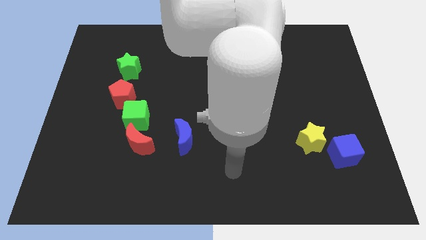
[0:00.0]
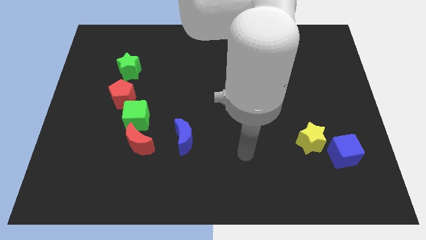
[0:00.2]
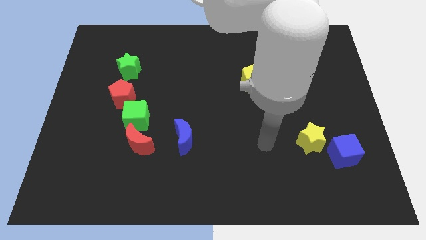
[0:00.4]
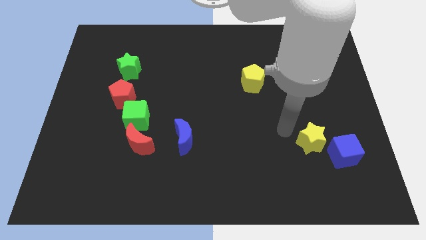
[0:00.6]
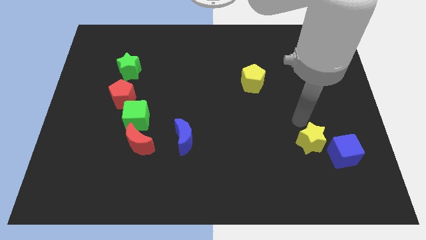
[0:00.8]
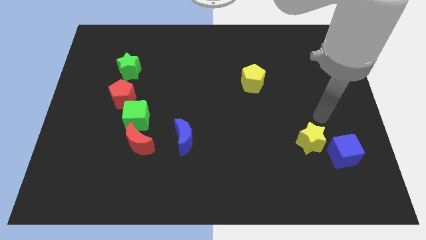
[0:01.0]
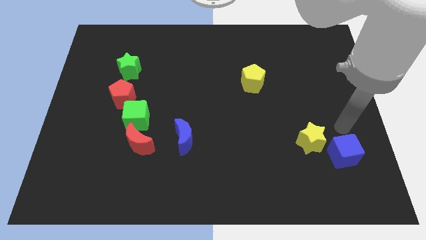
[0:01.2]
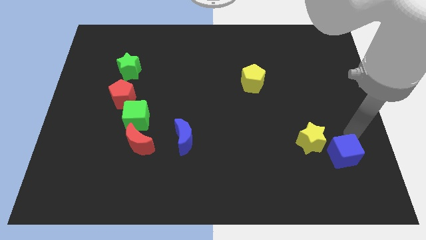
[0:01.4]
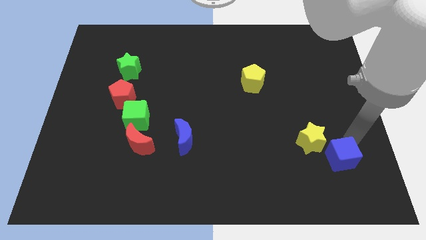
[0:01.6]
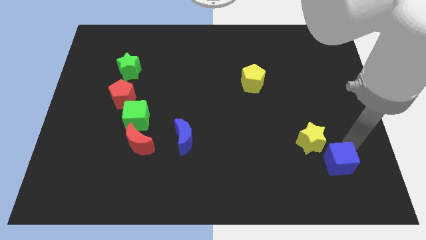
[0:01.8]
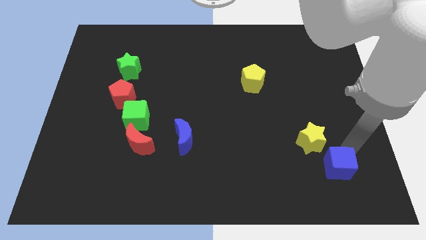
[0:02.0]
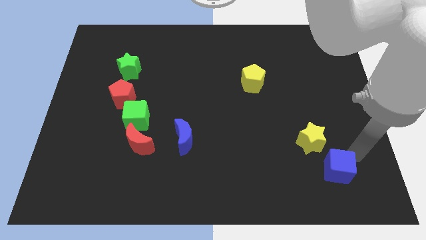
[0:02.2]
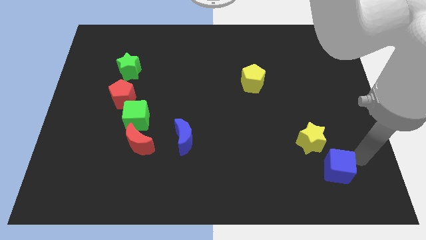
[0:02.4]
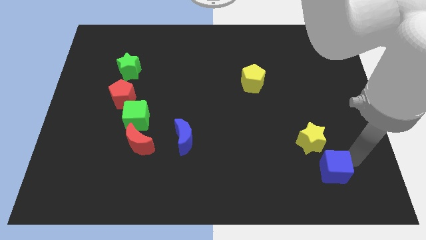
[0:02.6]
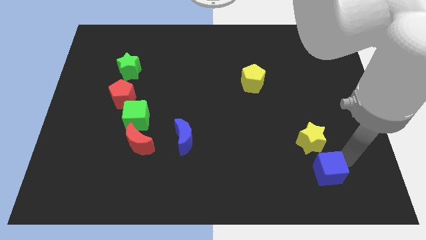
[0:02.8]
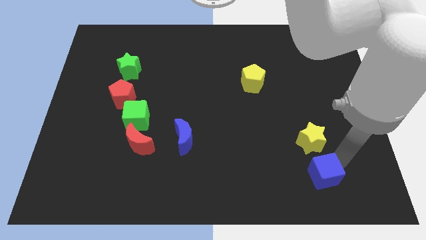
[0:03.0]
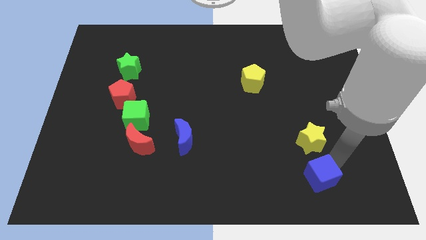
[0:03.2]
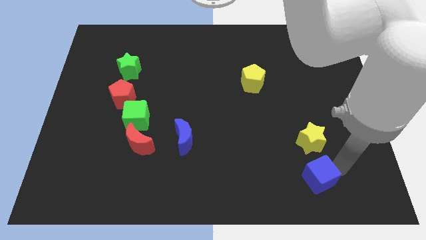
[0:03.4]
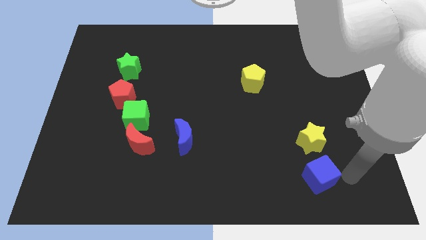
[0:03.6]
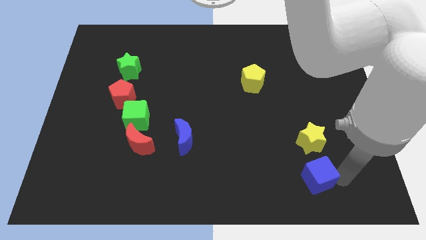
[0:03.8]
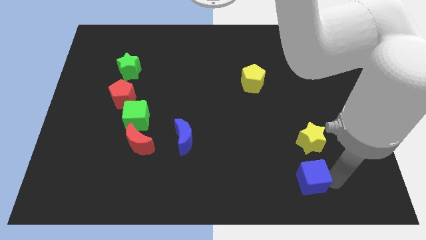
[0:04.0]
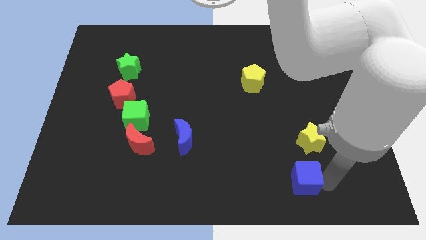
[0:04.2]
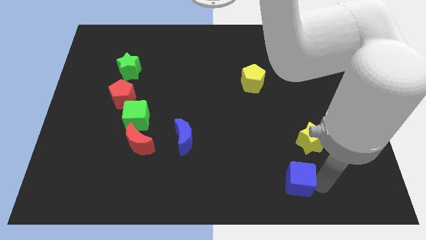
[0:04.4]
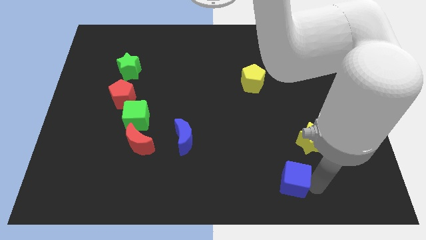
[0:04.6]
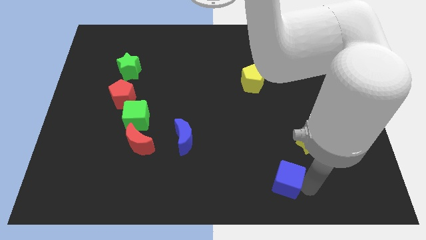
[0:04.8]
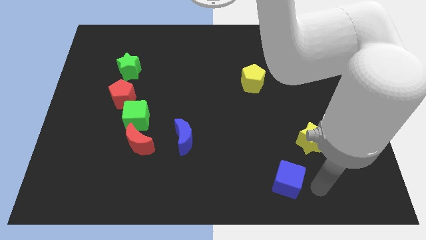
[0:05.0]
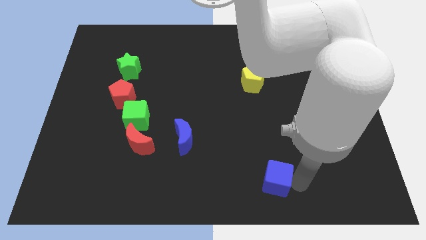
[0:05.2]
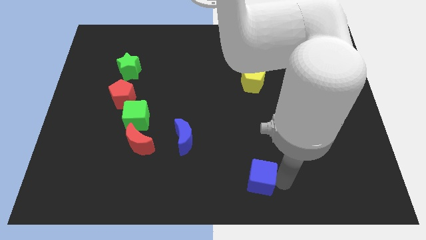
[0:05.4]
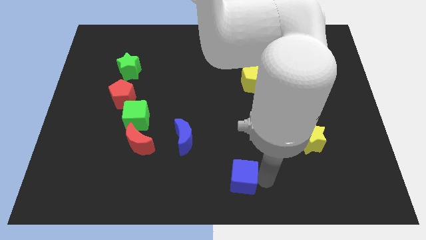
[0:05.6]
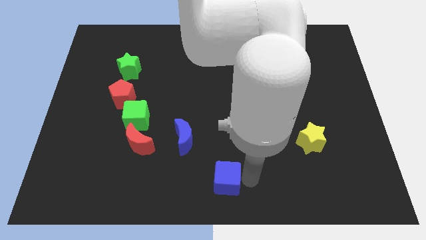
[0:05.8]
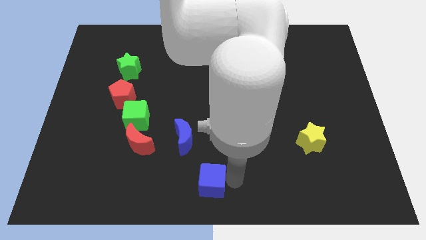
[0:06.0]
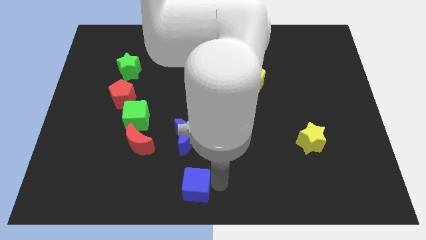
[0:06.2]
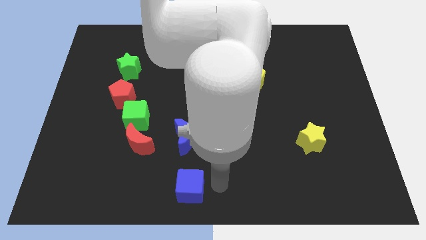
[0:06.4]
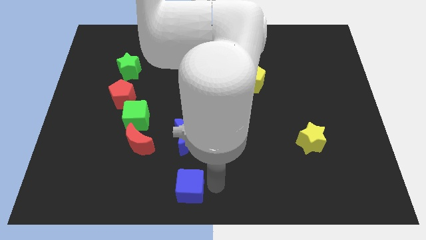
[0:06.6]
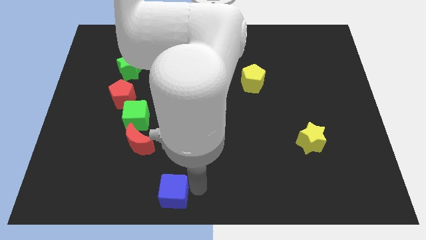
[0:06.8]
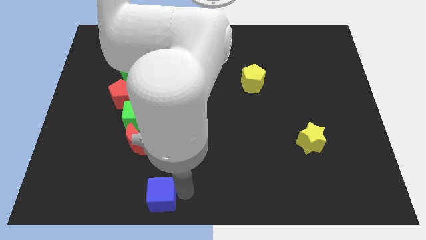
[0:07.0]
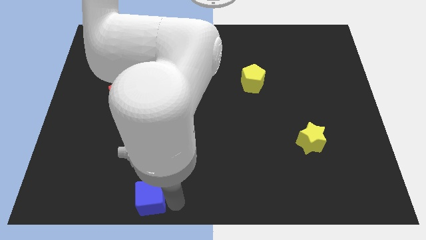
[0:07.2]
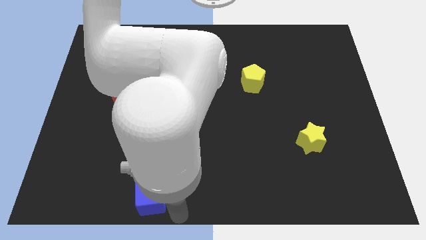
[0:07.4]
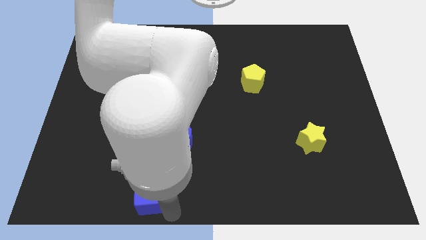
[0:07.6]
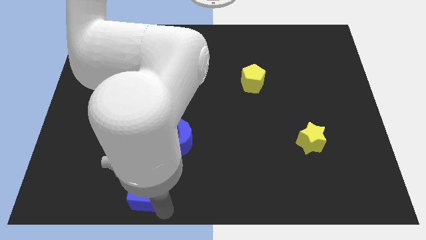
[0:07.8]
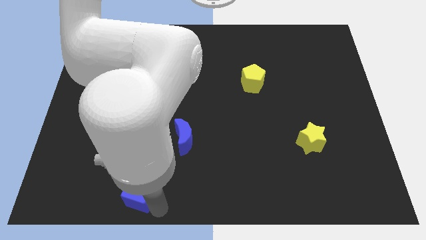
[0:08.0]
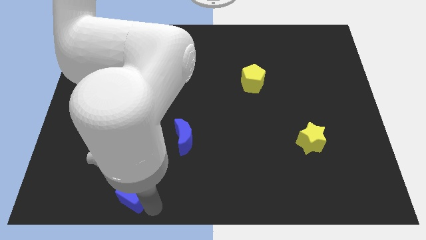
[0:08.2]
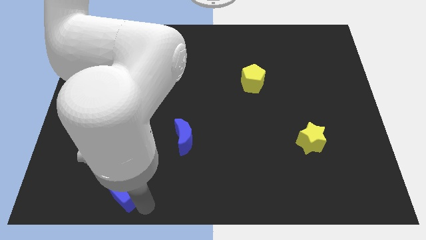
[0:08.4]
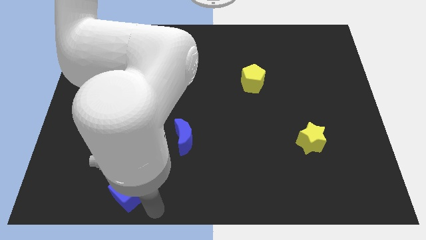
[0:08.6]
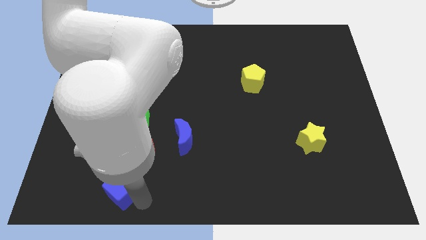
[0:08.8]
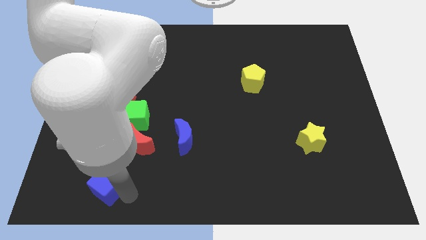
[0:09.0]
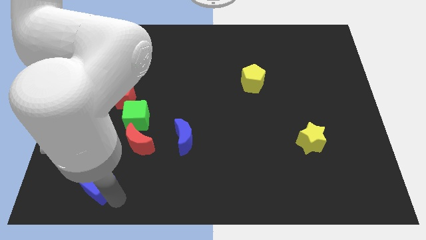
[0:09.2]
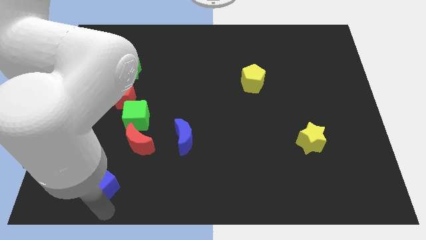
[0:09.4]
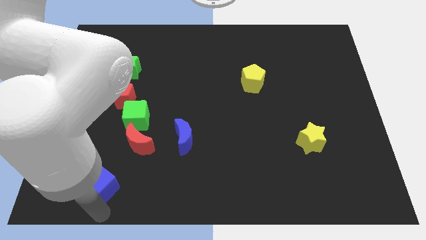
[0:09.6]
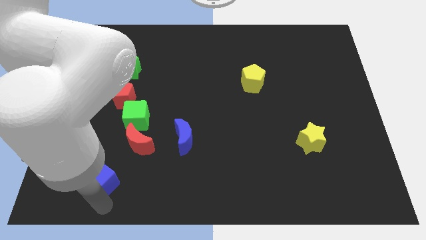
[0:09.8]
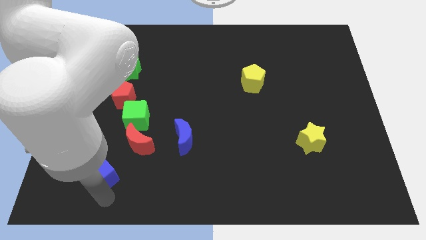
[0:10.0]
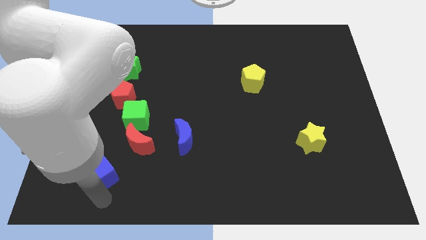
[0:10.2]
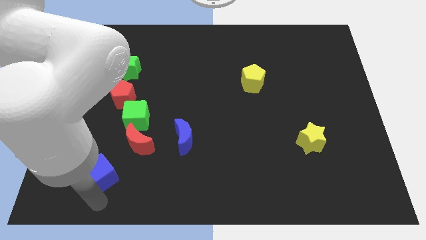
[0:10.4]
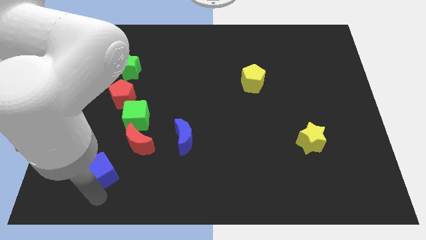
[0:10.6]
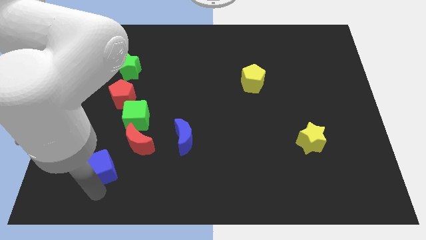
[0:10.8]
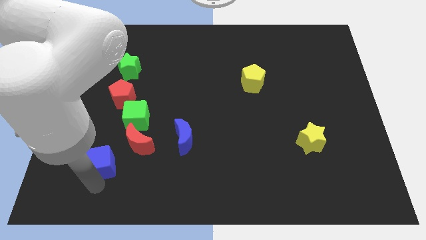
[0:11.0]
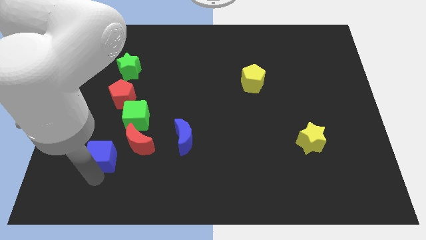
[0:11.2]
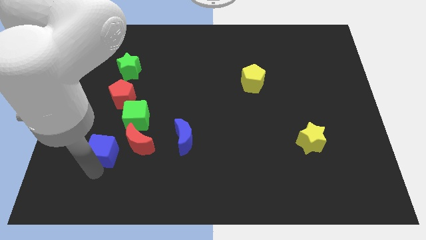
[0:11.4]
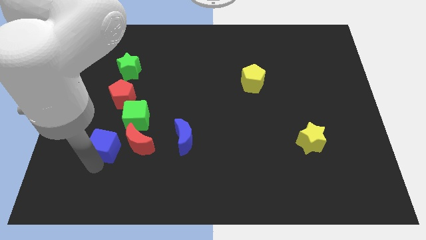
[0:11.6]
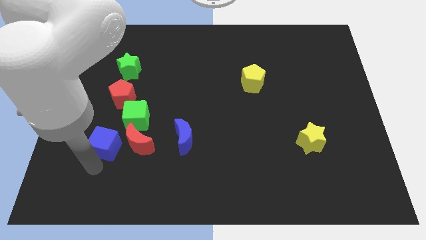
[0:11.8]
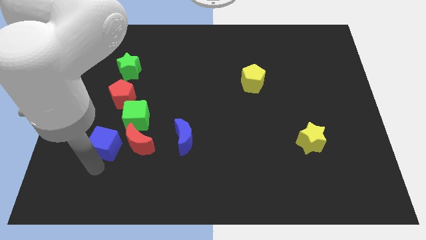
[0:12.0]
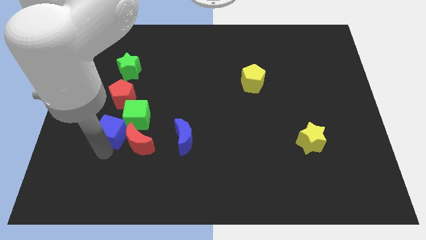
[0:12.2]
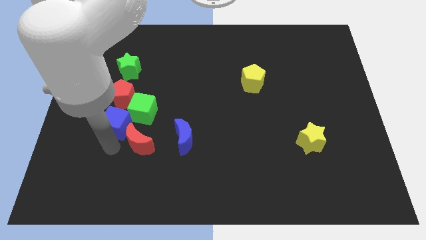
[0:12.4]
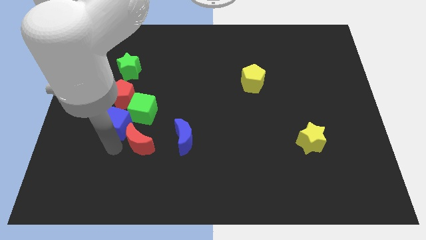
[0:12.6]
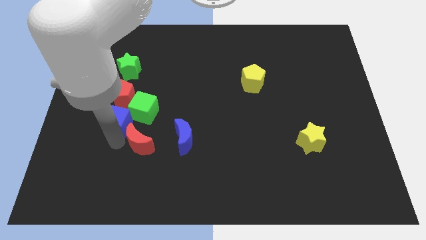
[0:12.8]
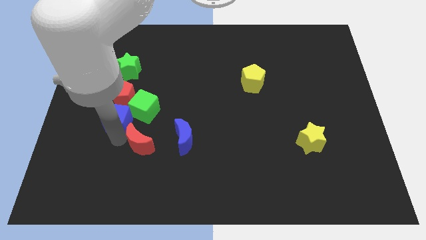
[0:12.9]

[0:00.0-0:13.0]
slide the blue cube to the bottom side of the green star
